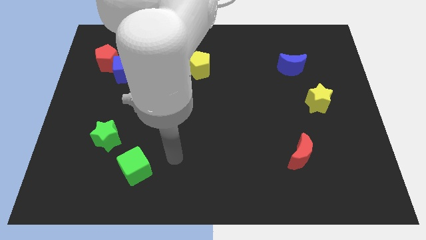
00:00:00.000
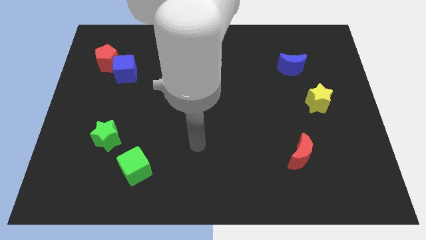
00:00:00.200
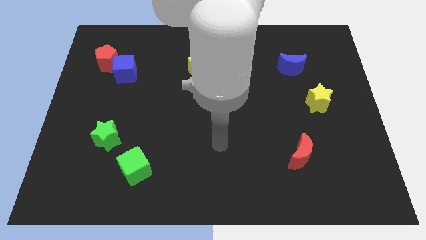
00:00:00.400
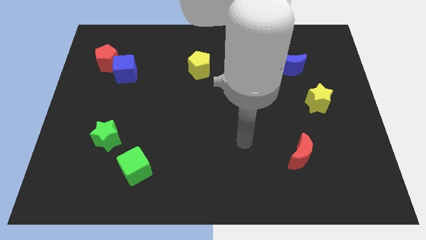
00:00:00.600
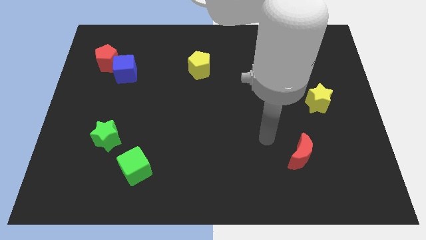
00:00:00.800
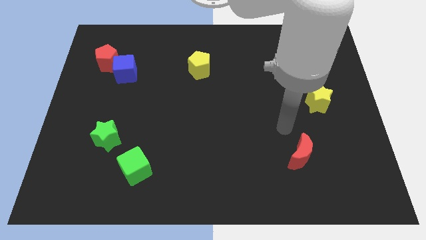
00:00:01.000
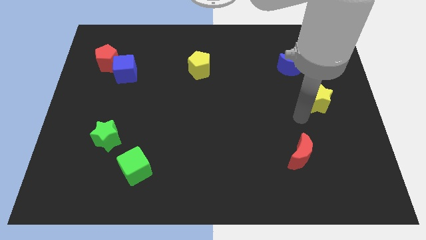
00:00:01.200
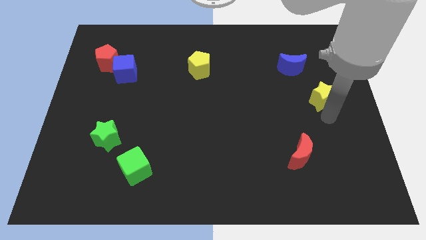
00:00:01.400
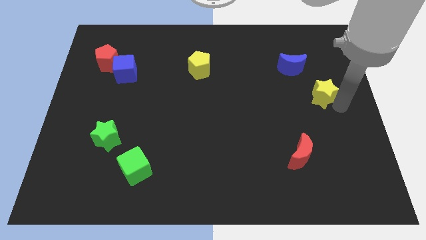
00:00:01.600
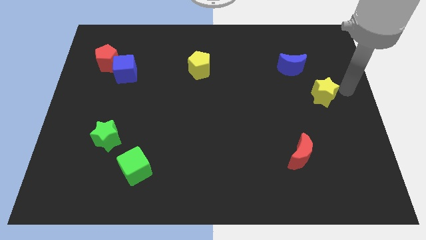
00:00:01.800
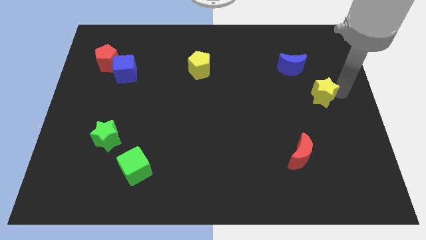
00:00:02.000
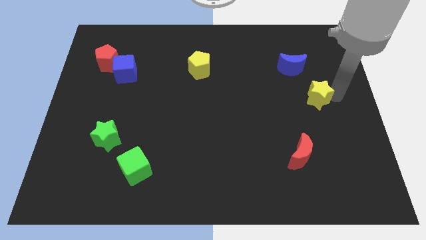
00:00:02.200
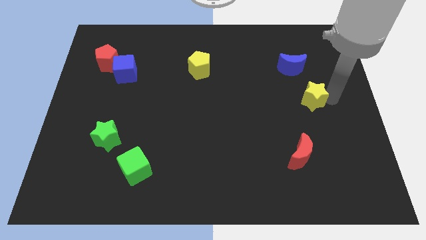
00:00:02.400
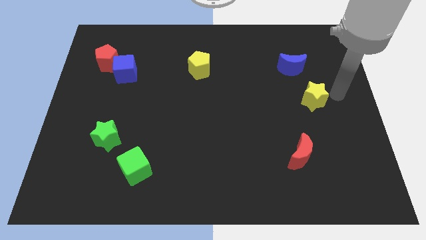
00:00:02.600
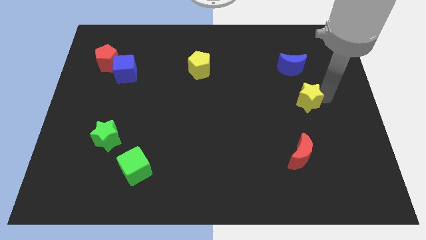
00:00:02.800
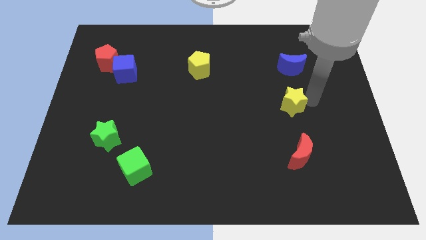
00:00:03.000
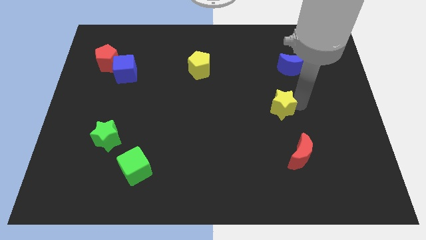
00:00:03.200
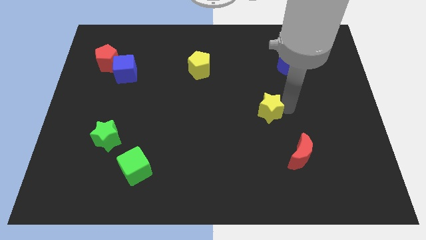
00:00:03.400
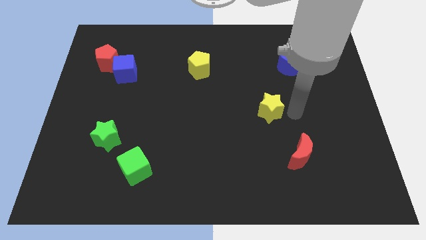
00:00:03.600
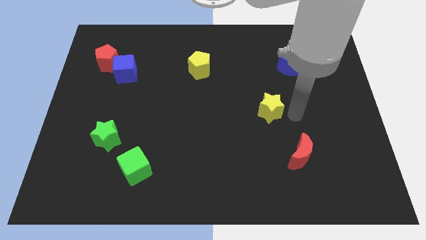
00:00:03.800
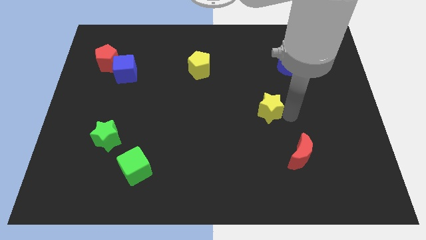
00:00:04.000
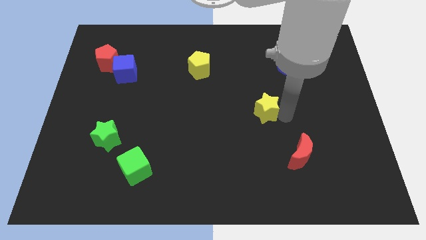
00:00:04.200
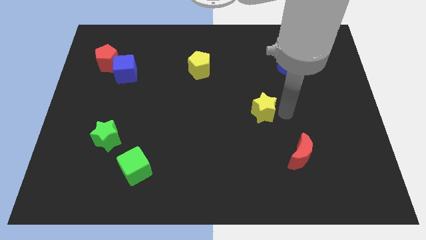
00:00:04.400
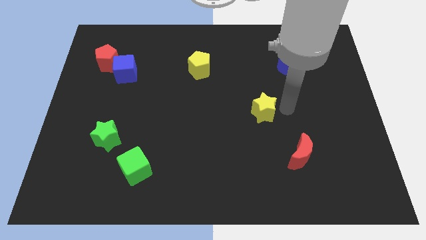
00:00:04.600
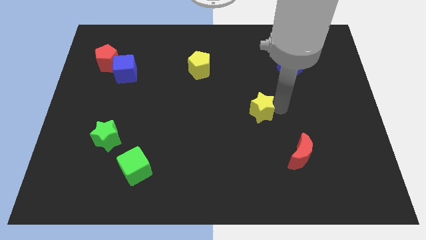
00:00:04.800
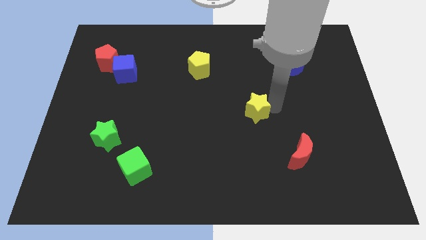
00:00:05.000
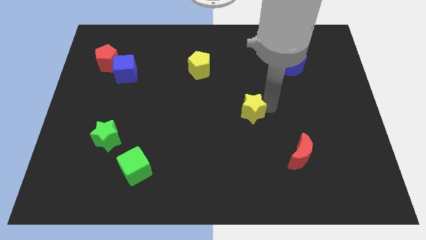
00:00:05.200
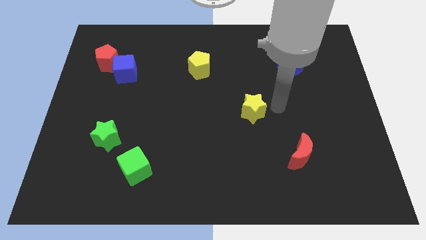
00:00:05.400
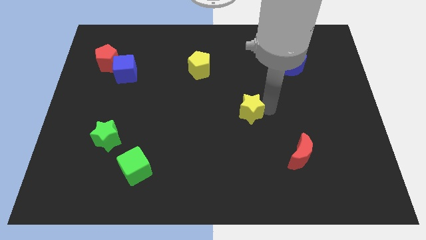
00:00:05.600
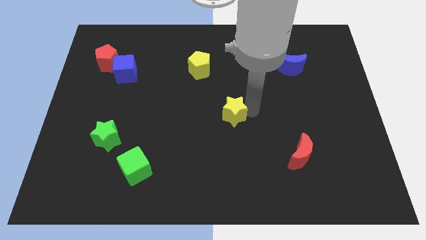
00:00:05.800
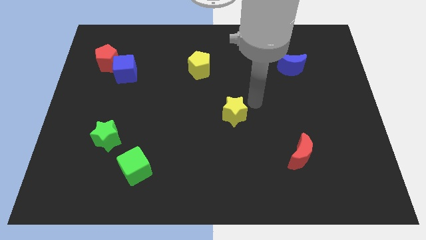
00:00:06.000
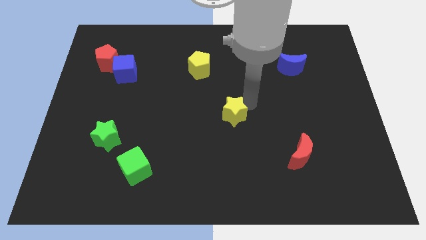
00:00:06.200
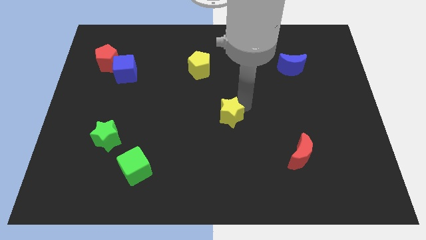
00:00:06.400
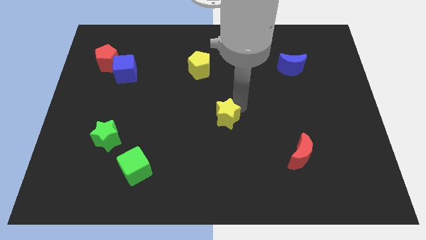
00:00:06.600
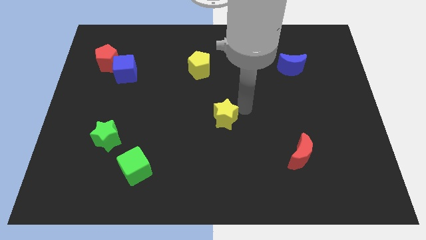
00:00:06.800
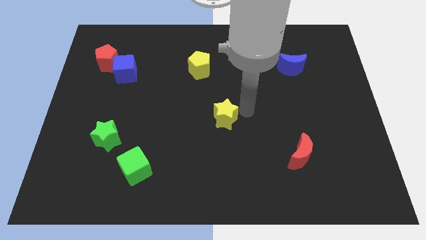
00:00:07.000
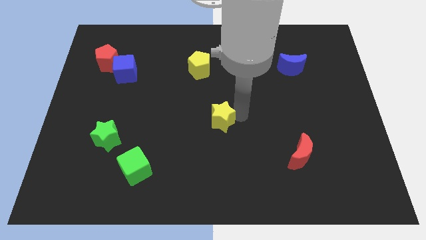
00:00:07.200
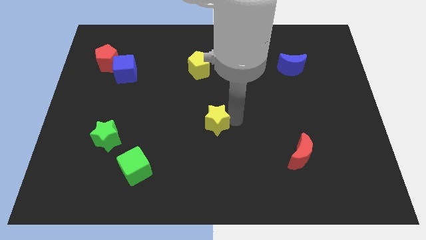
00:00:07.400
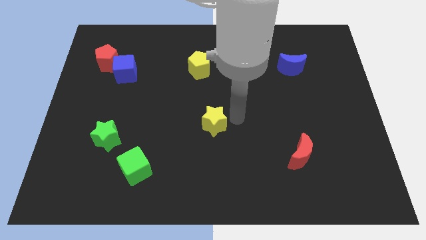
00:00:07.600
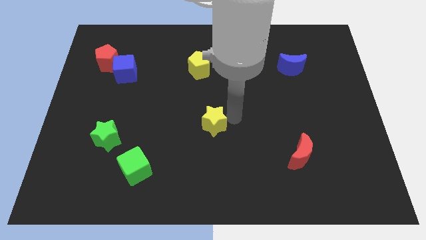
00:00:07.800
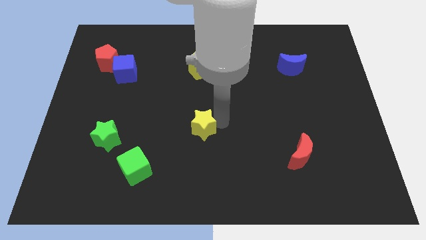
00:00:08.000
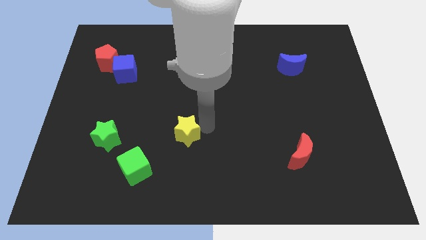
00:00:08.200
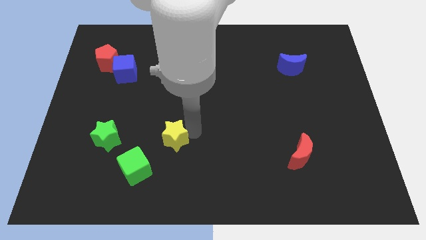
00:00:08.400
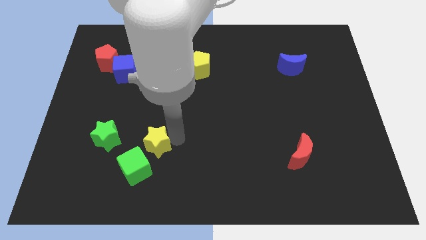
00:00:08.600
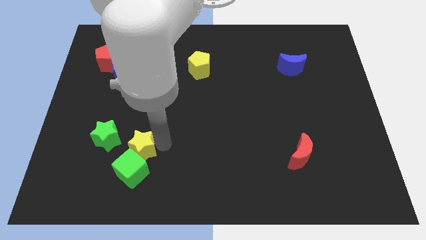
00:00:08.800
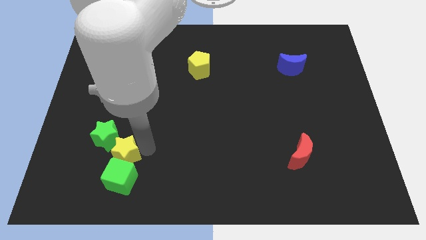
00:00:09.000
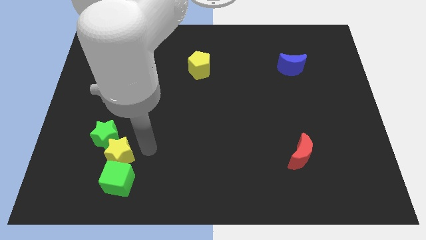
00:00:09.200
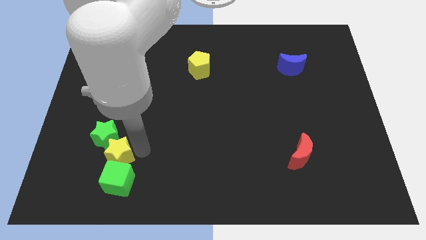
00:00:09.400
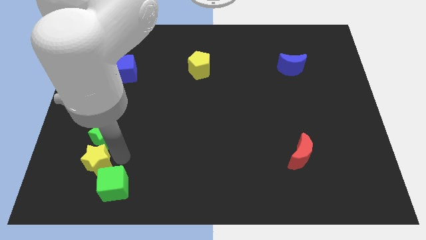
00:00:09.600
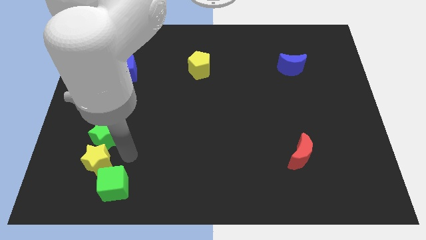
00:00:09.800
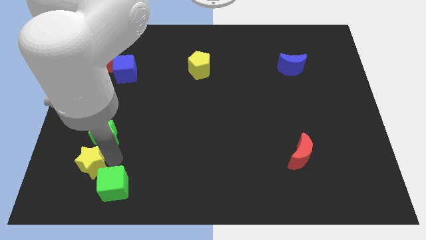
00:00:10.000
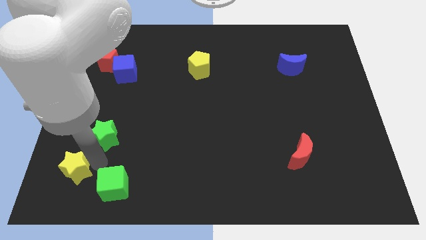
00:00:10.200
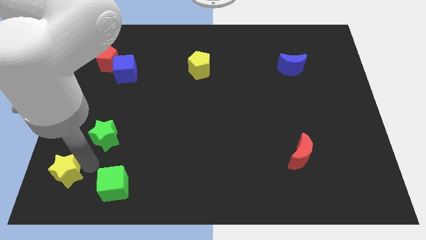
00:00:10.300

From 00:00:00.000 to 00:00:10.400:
put the yellow star to the lower left corner

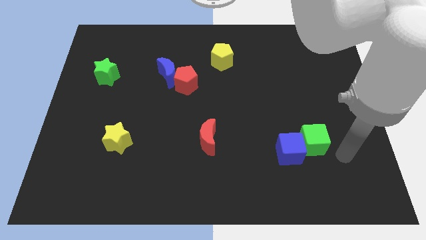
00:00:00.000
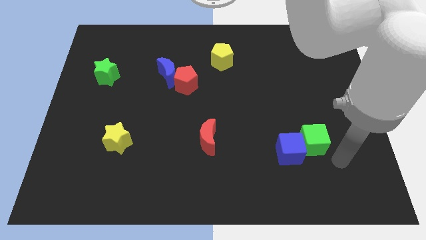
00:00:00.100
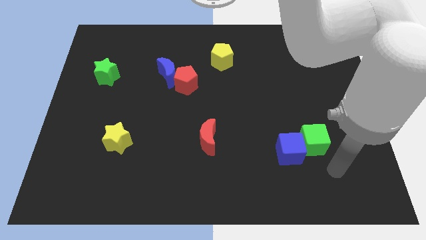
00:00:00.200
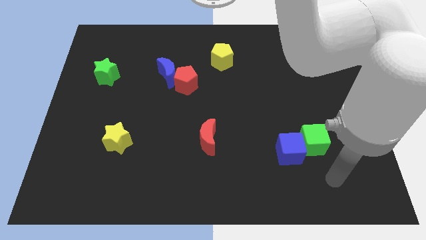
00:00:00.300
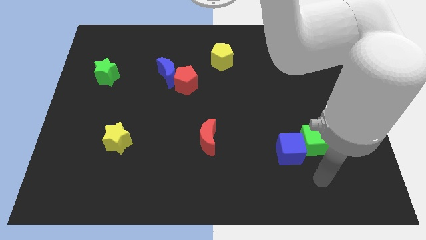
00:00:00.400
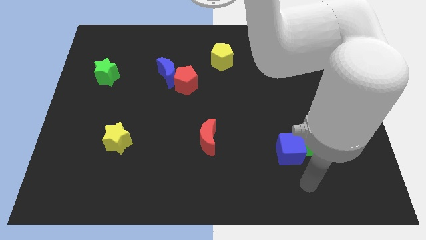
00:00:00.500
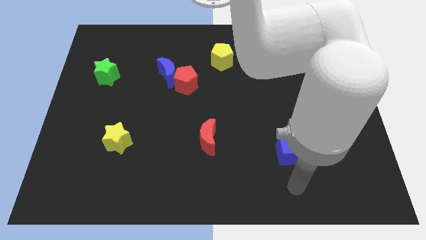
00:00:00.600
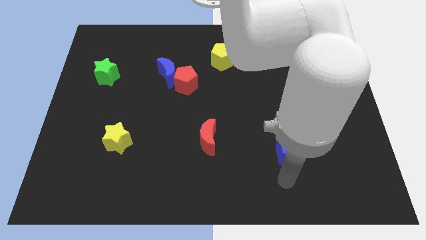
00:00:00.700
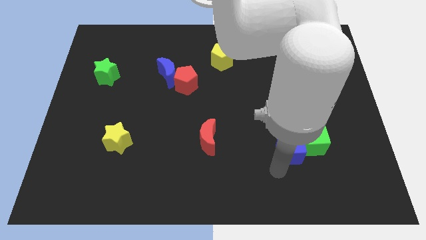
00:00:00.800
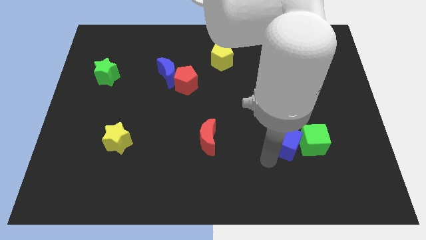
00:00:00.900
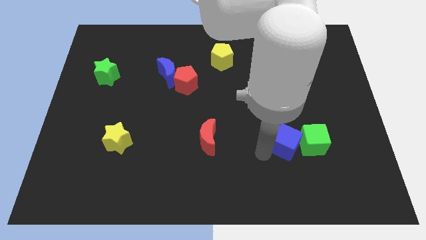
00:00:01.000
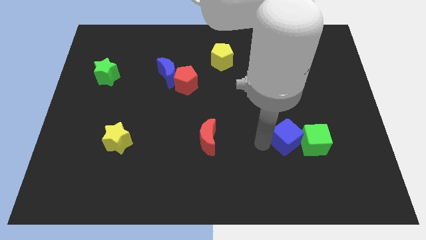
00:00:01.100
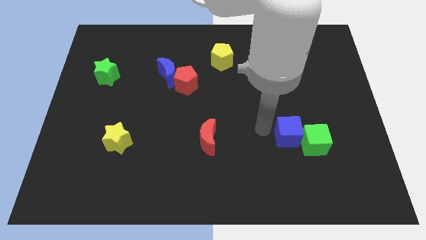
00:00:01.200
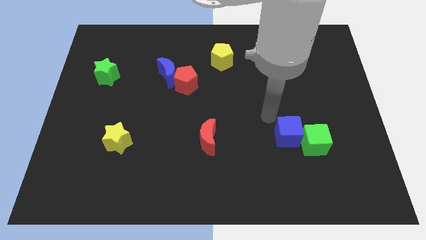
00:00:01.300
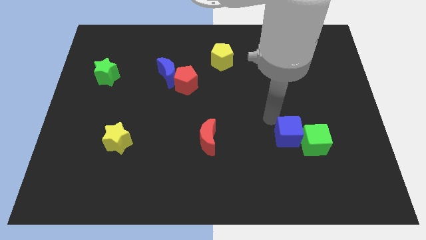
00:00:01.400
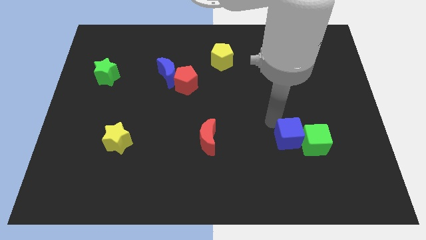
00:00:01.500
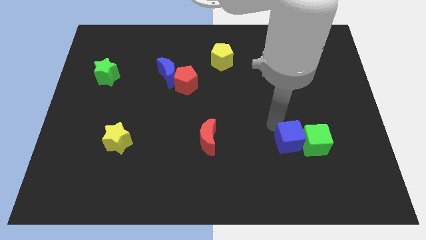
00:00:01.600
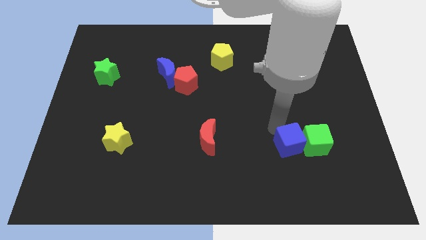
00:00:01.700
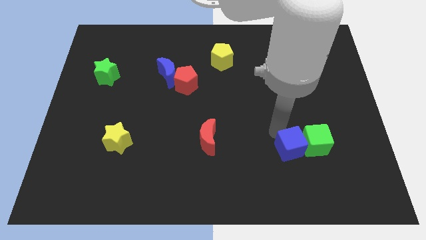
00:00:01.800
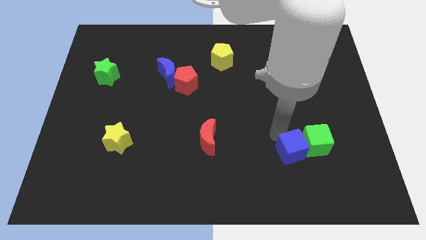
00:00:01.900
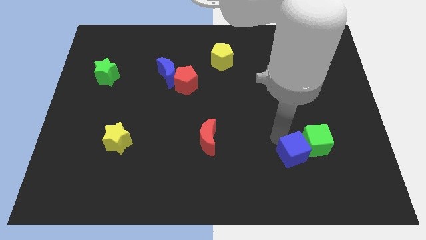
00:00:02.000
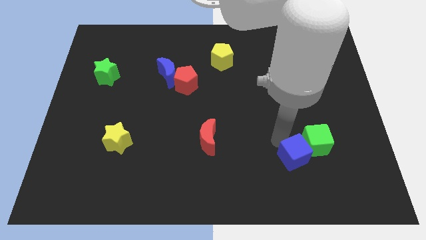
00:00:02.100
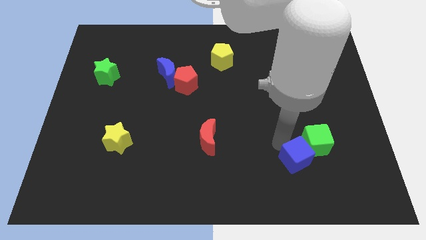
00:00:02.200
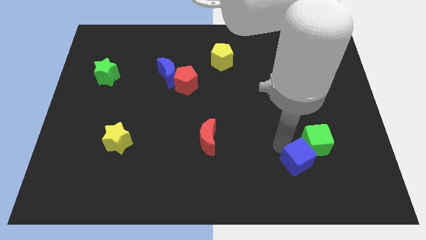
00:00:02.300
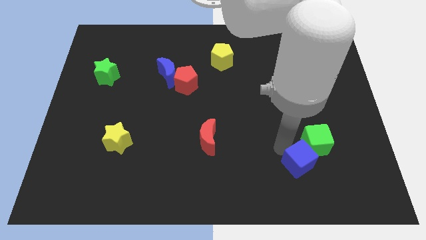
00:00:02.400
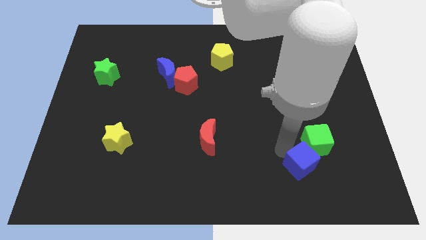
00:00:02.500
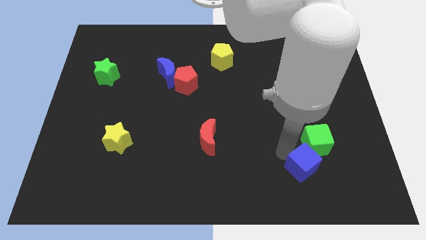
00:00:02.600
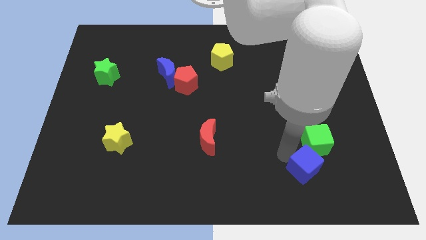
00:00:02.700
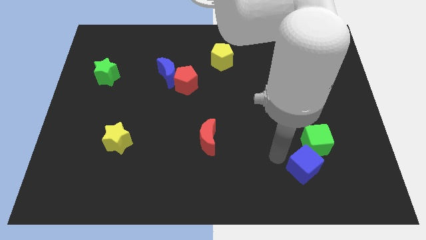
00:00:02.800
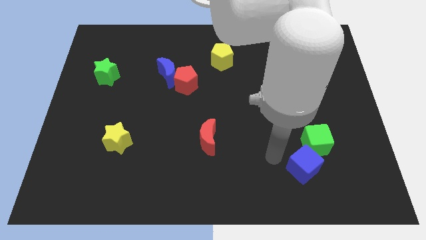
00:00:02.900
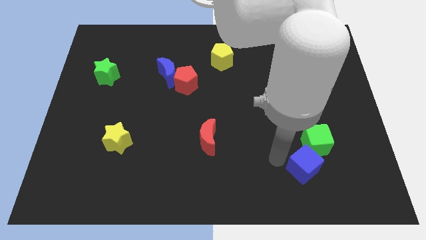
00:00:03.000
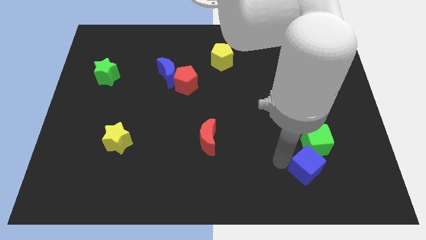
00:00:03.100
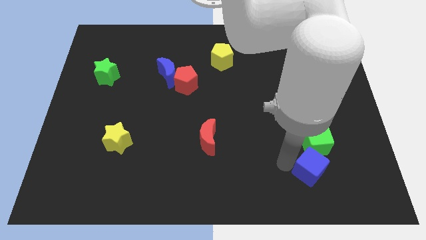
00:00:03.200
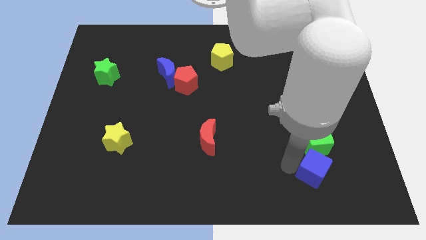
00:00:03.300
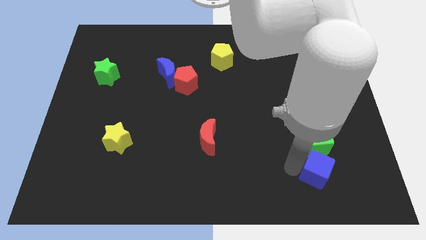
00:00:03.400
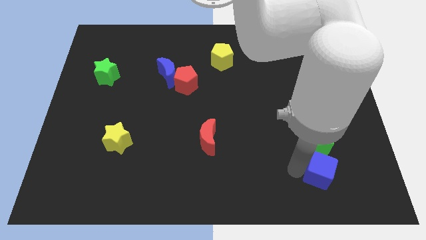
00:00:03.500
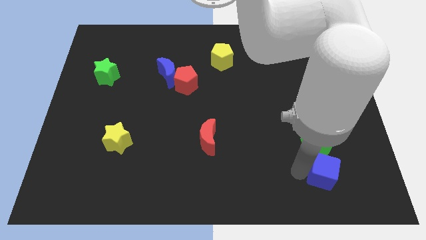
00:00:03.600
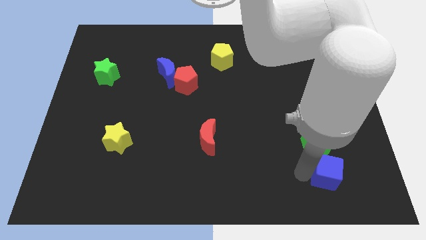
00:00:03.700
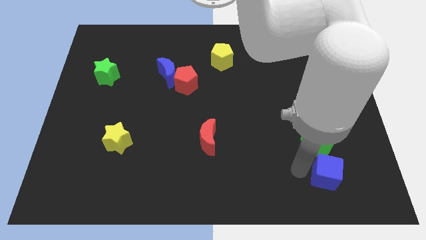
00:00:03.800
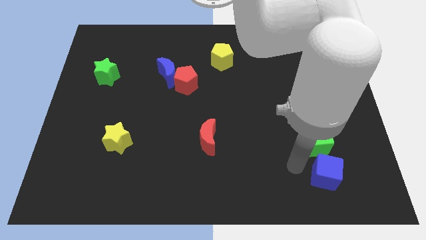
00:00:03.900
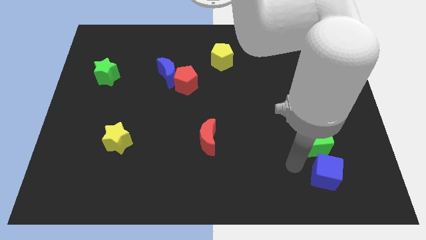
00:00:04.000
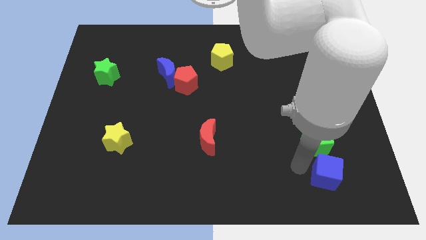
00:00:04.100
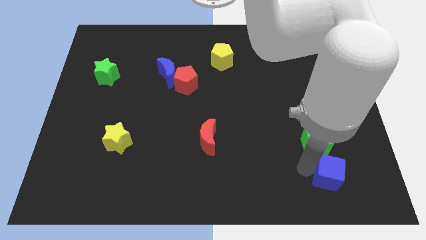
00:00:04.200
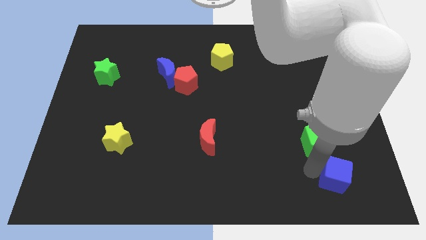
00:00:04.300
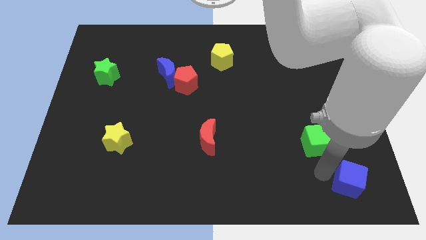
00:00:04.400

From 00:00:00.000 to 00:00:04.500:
move the blue cube to the bottom right corner
